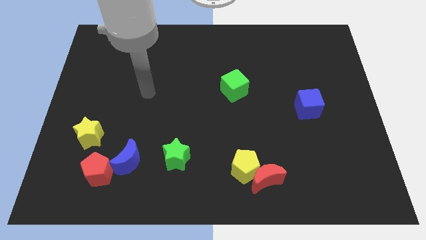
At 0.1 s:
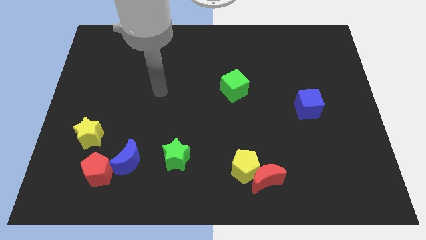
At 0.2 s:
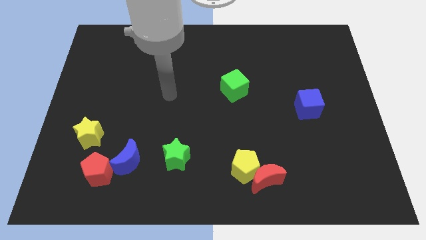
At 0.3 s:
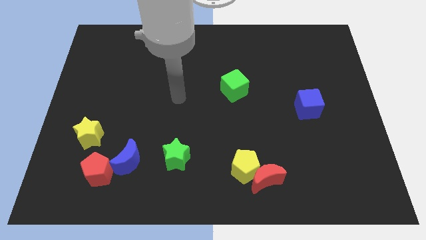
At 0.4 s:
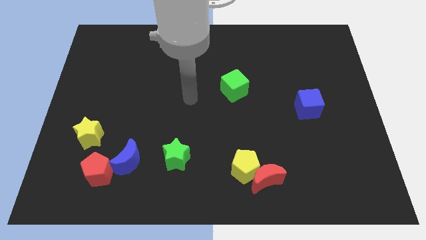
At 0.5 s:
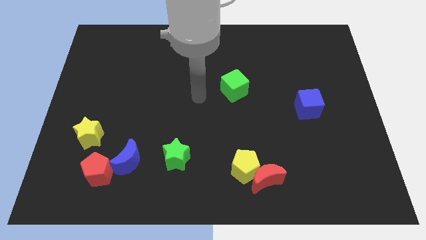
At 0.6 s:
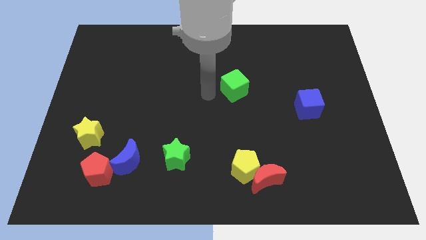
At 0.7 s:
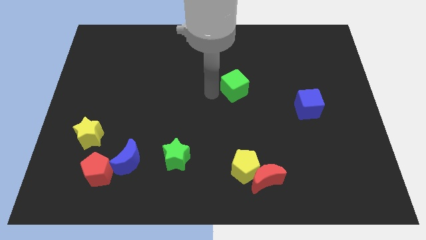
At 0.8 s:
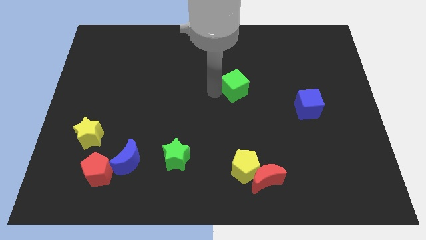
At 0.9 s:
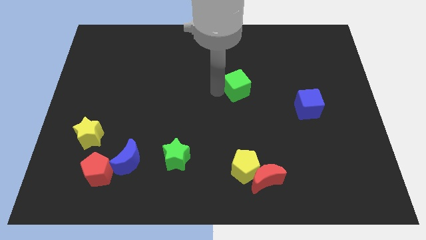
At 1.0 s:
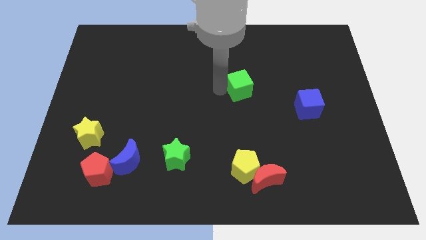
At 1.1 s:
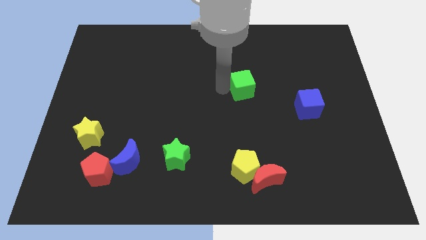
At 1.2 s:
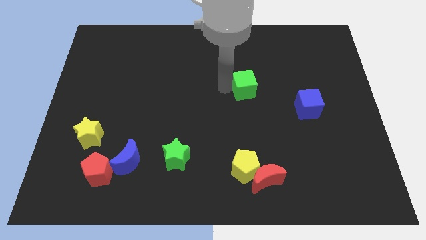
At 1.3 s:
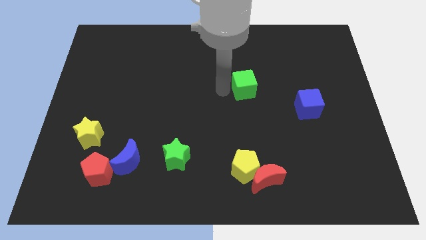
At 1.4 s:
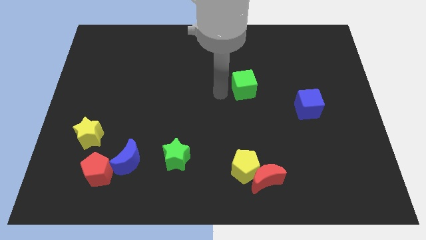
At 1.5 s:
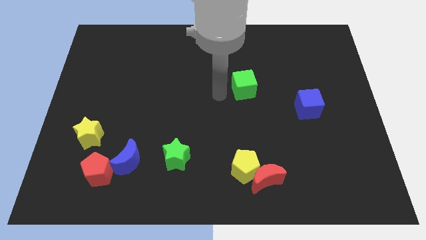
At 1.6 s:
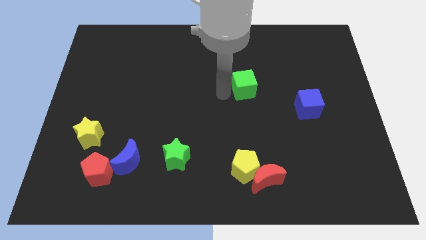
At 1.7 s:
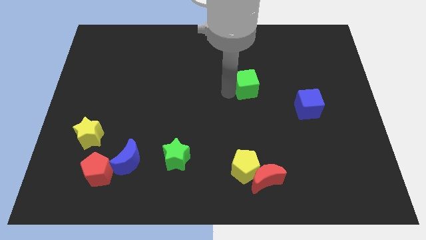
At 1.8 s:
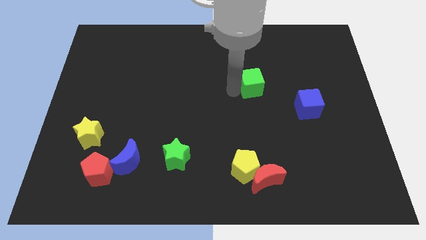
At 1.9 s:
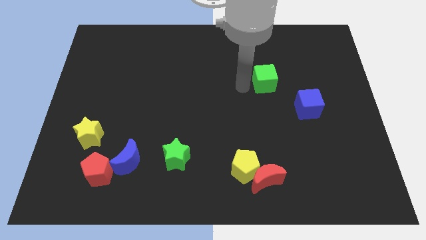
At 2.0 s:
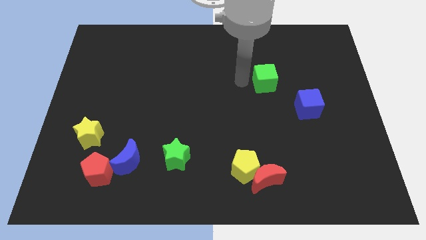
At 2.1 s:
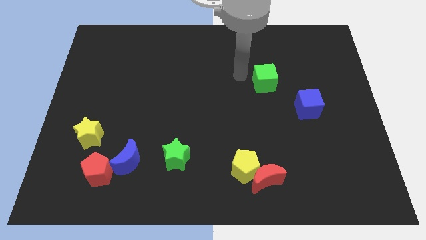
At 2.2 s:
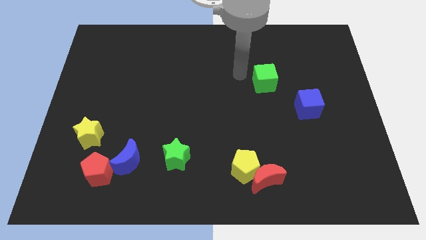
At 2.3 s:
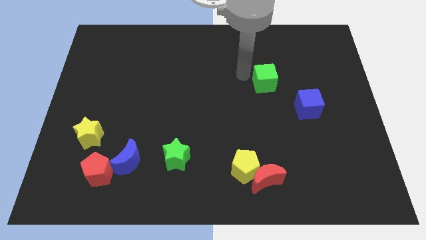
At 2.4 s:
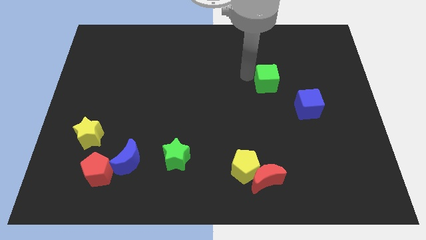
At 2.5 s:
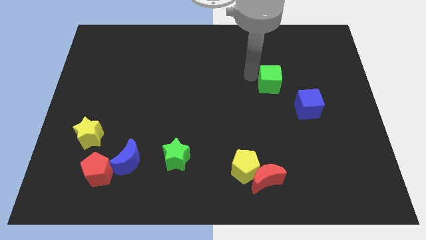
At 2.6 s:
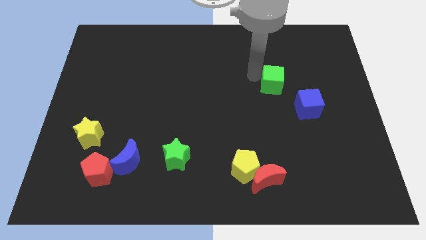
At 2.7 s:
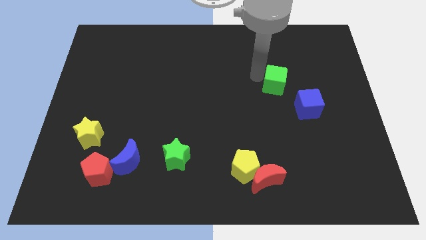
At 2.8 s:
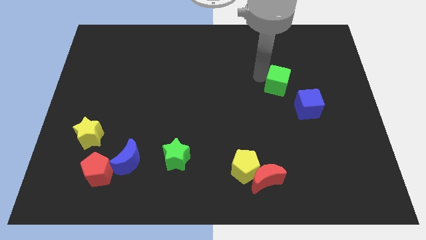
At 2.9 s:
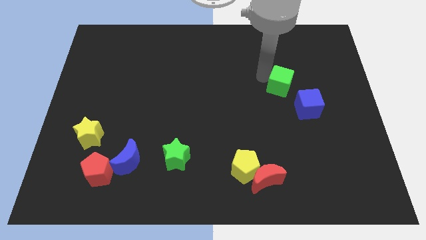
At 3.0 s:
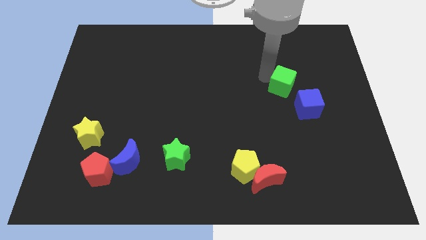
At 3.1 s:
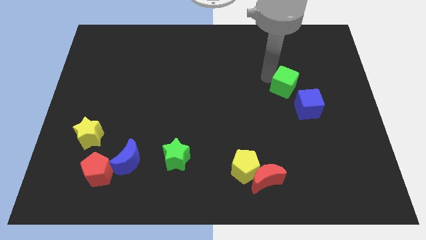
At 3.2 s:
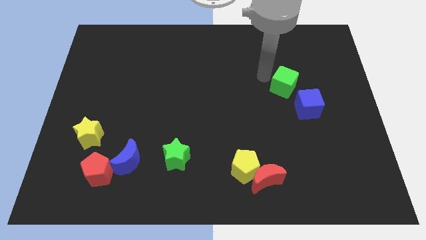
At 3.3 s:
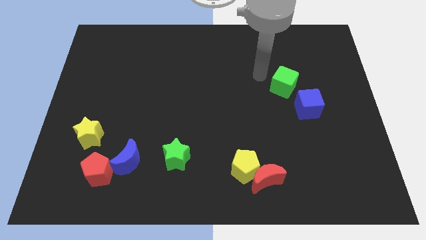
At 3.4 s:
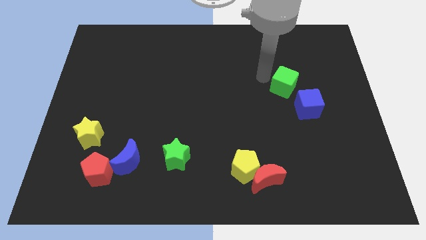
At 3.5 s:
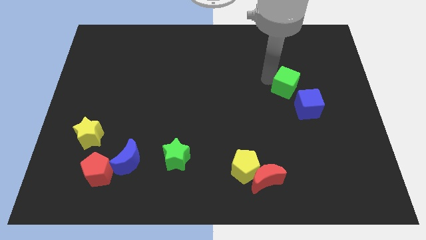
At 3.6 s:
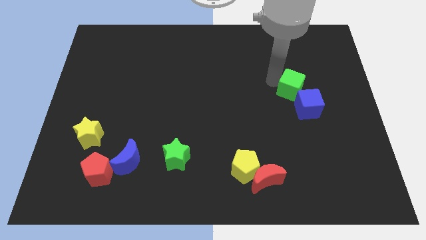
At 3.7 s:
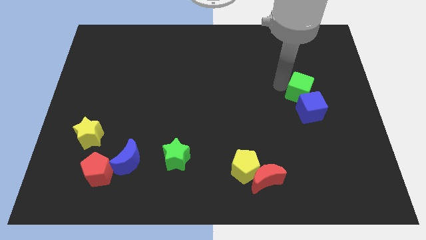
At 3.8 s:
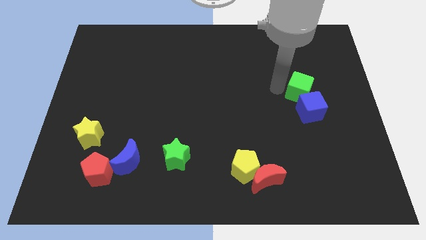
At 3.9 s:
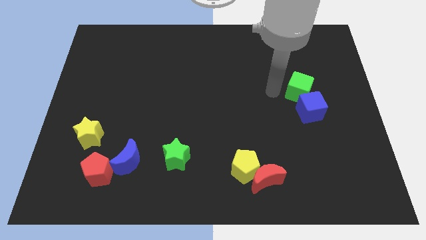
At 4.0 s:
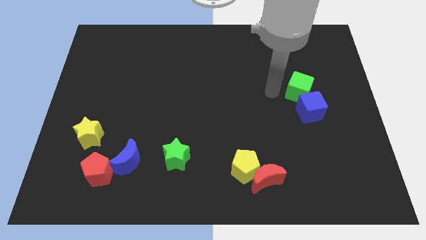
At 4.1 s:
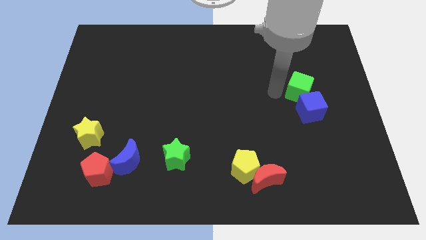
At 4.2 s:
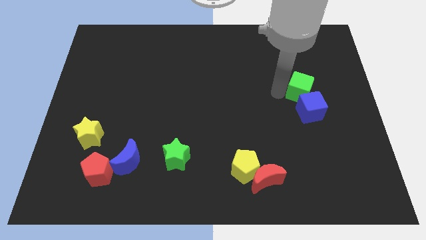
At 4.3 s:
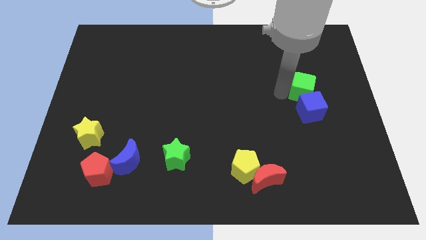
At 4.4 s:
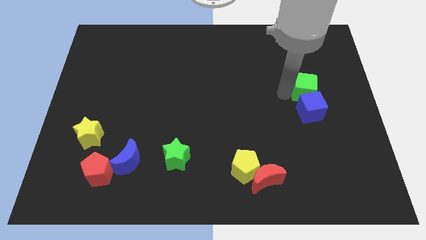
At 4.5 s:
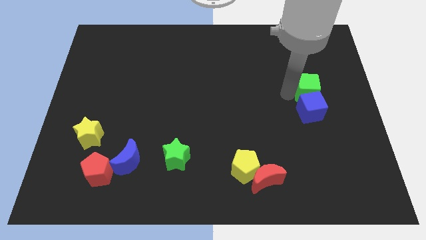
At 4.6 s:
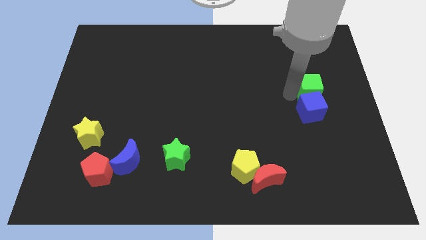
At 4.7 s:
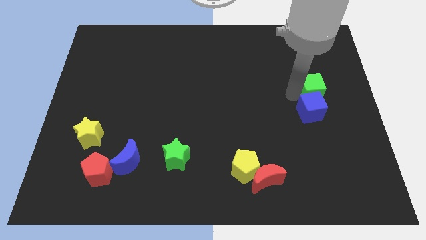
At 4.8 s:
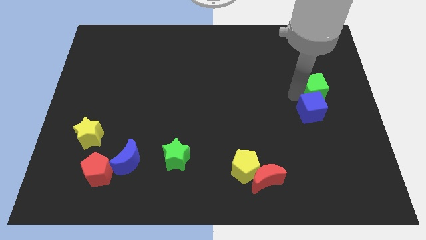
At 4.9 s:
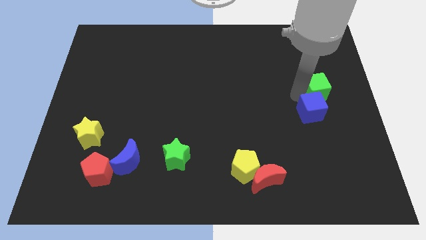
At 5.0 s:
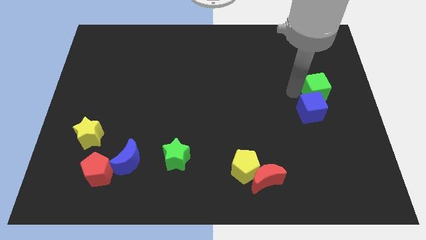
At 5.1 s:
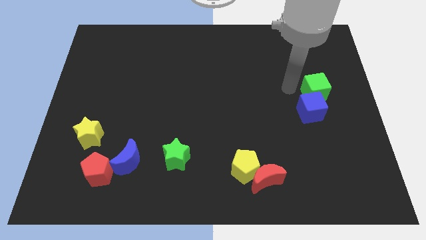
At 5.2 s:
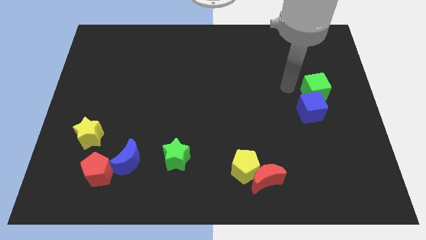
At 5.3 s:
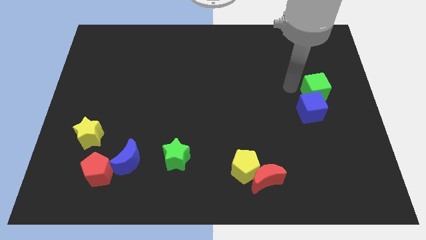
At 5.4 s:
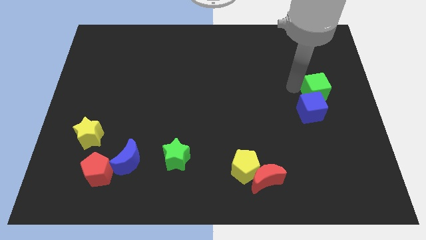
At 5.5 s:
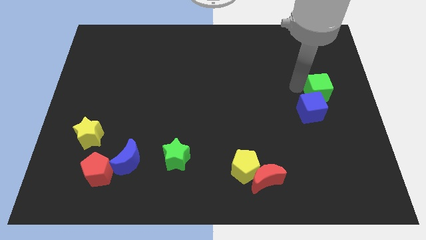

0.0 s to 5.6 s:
slide the green cube to the right side of the board

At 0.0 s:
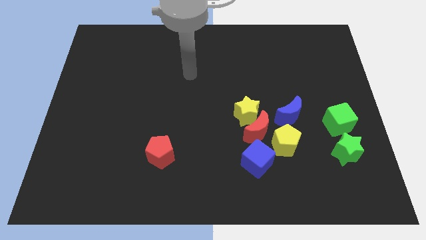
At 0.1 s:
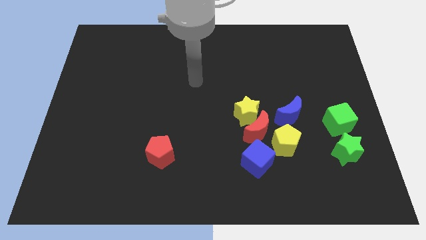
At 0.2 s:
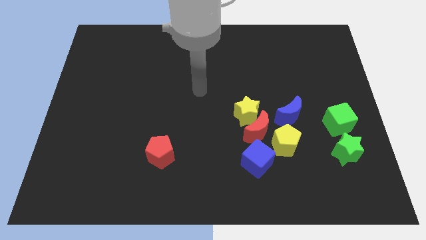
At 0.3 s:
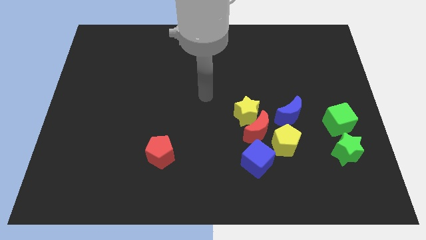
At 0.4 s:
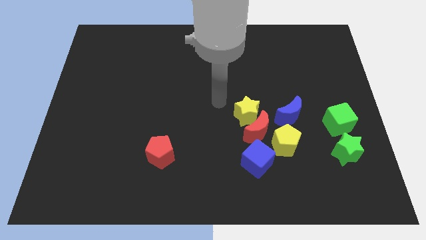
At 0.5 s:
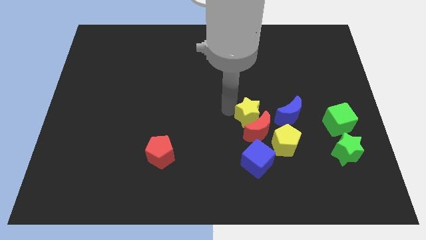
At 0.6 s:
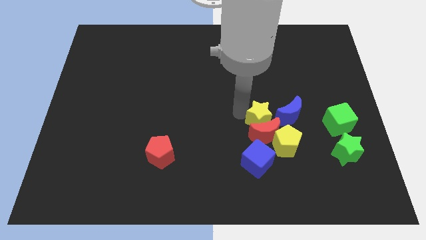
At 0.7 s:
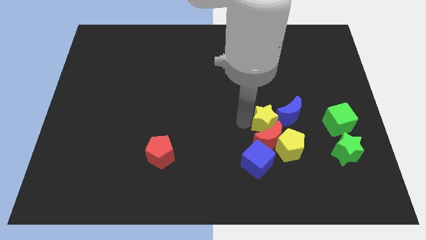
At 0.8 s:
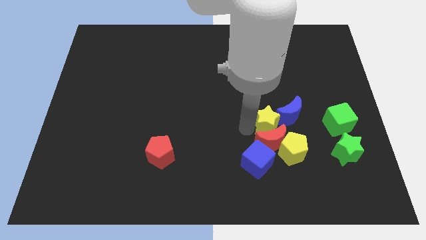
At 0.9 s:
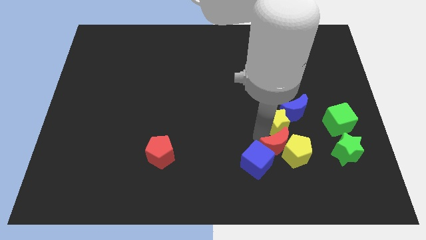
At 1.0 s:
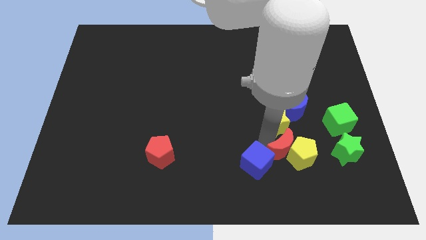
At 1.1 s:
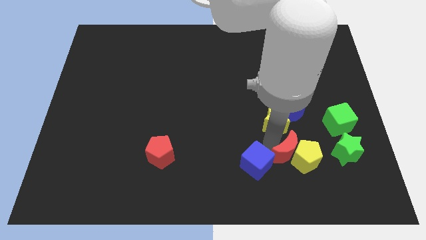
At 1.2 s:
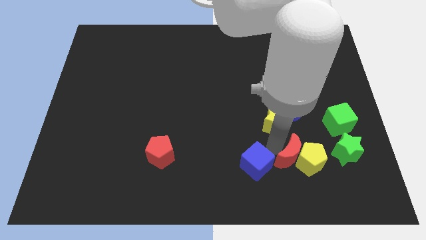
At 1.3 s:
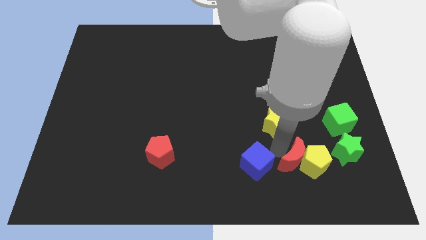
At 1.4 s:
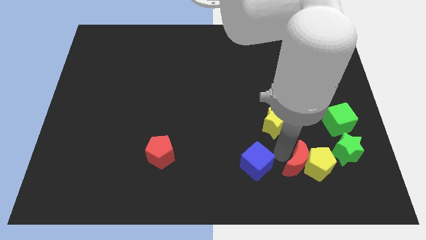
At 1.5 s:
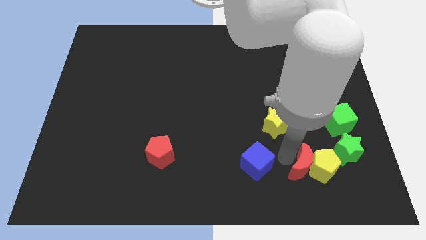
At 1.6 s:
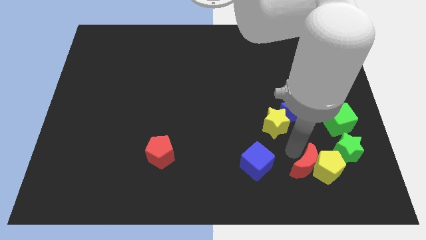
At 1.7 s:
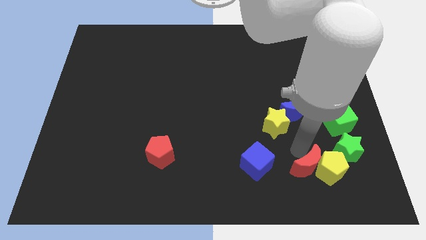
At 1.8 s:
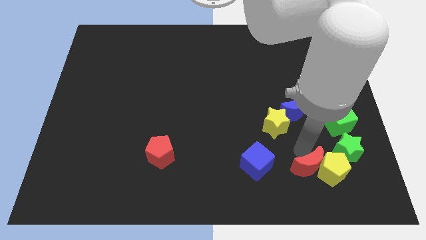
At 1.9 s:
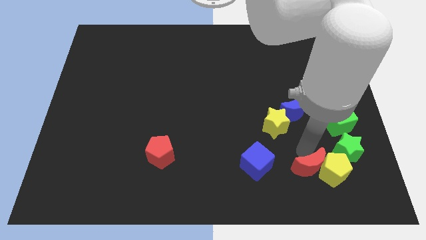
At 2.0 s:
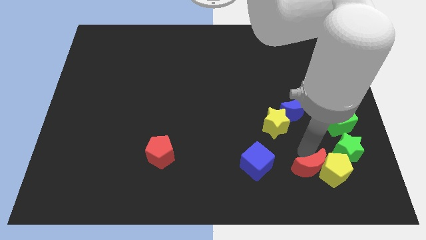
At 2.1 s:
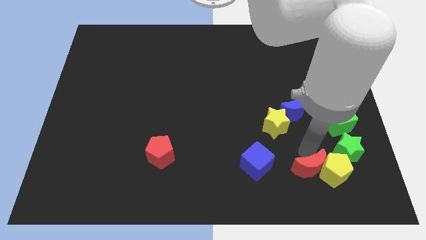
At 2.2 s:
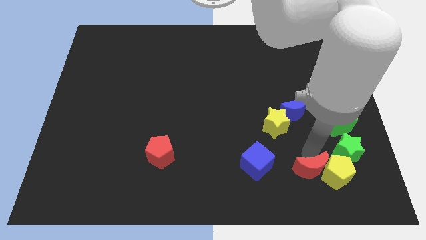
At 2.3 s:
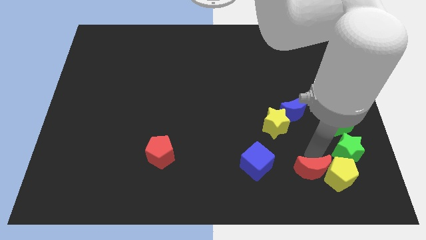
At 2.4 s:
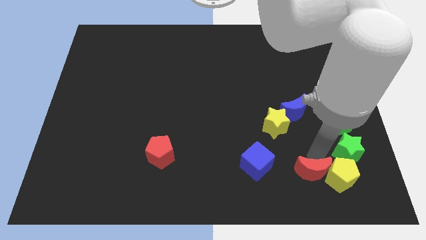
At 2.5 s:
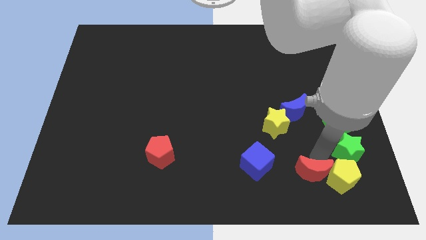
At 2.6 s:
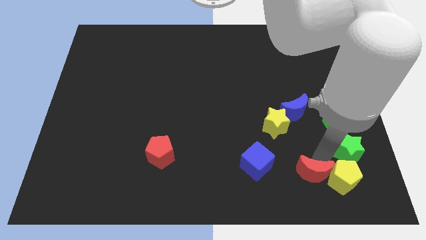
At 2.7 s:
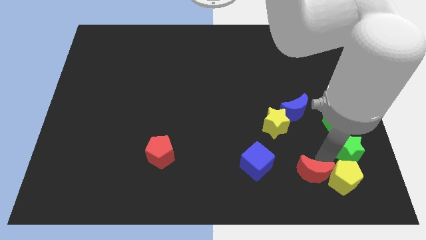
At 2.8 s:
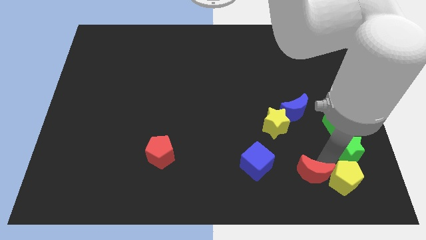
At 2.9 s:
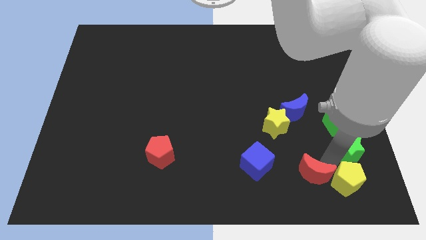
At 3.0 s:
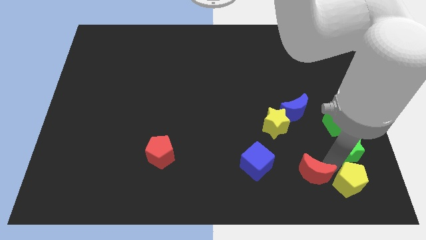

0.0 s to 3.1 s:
move the yellow pentagon to the bottom right of the board
